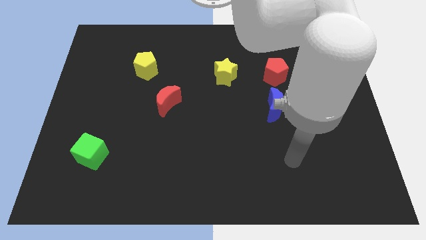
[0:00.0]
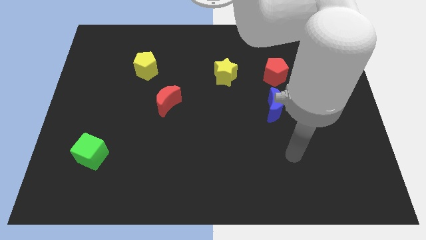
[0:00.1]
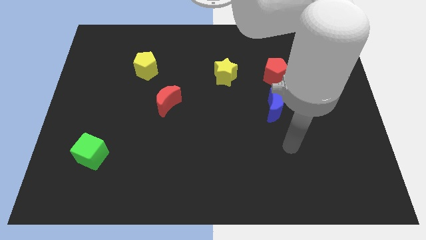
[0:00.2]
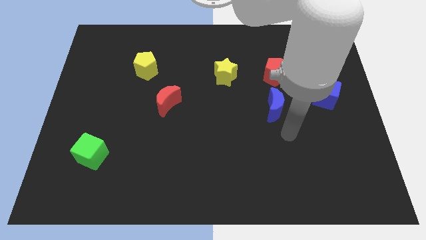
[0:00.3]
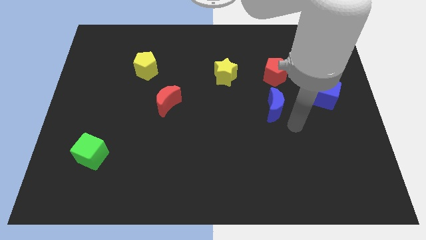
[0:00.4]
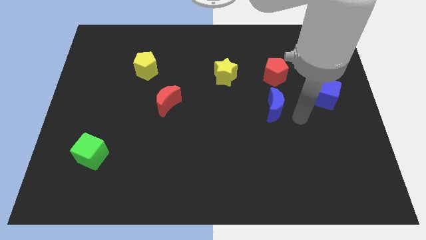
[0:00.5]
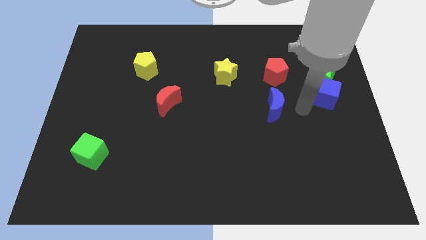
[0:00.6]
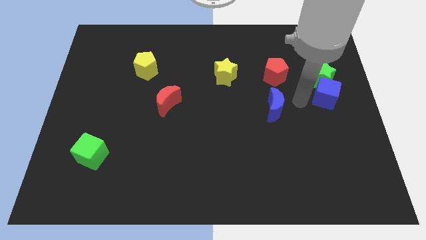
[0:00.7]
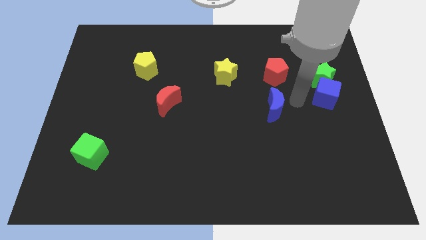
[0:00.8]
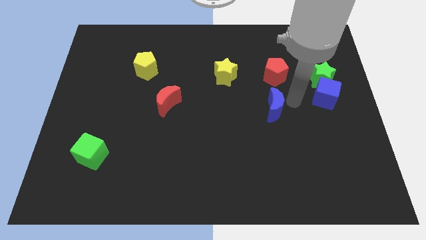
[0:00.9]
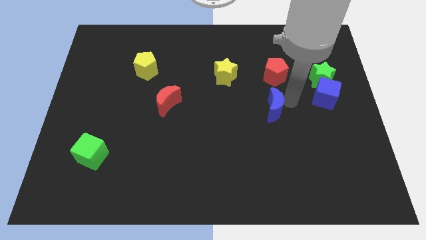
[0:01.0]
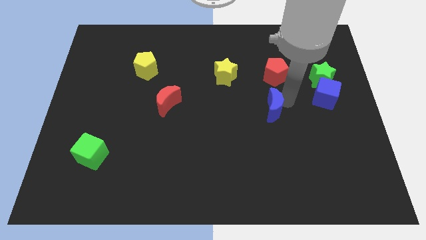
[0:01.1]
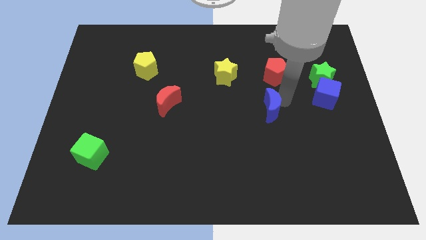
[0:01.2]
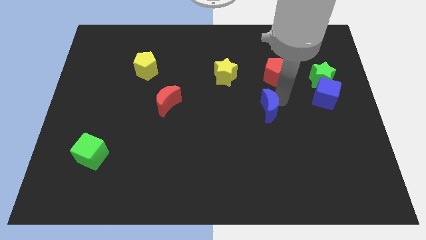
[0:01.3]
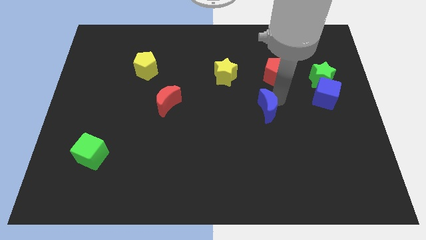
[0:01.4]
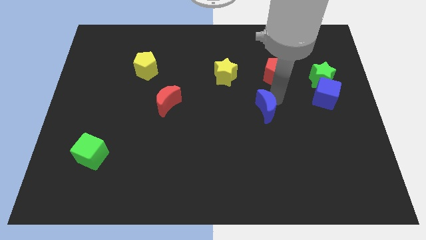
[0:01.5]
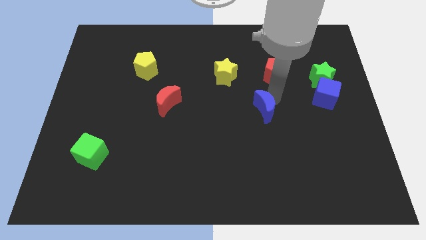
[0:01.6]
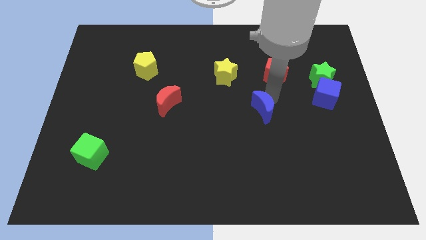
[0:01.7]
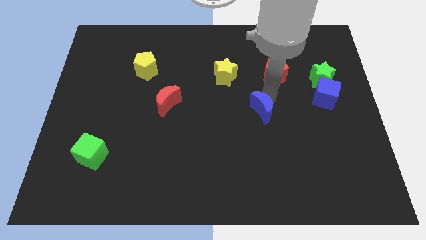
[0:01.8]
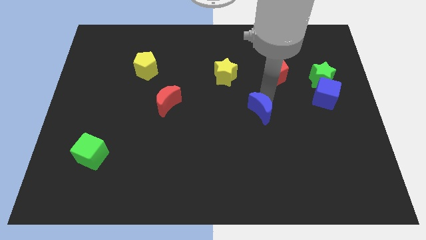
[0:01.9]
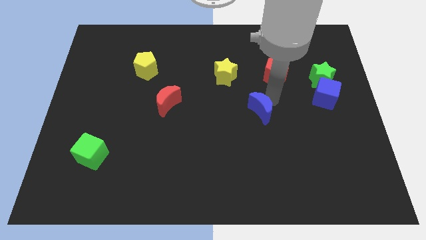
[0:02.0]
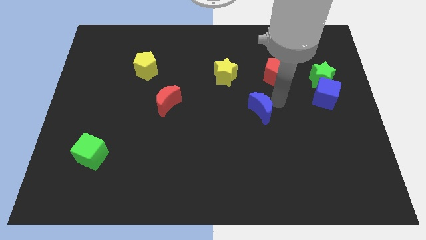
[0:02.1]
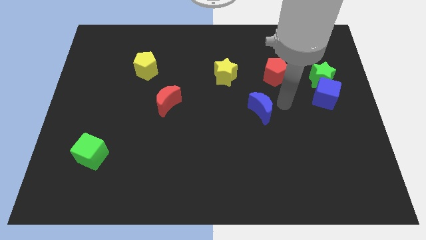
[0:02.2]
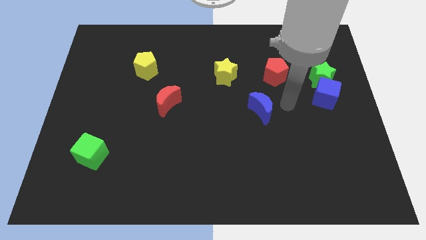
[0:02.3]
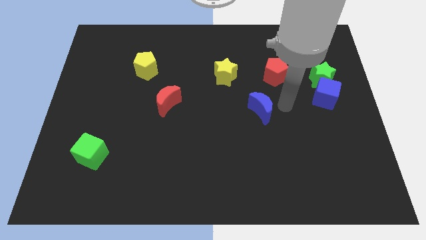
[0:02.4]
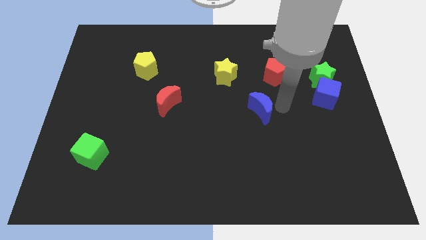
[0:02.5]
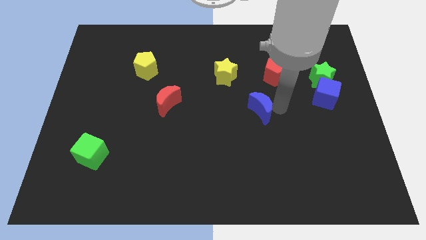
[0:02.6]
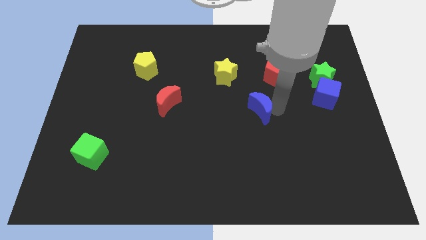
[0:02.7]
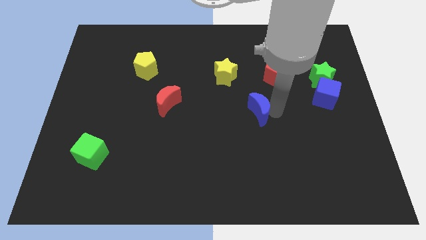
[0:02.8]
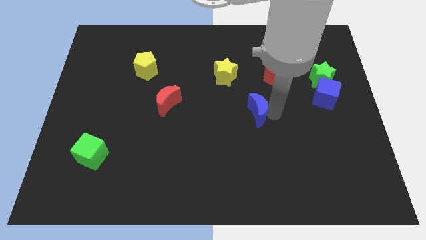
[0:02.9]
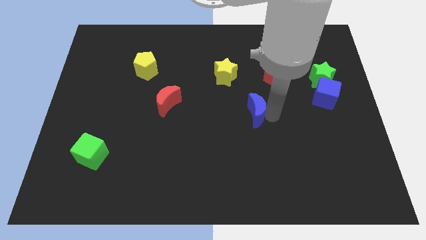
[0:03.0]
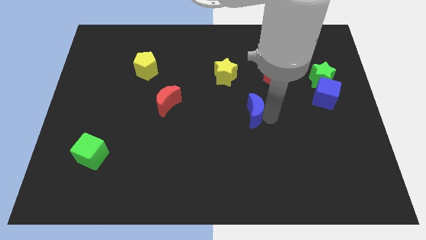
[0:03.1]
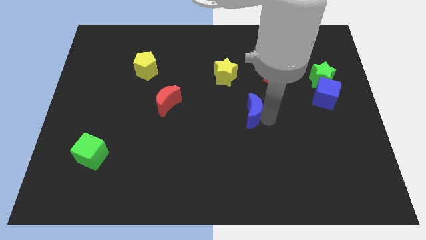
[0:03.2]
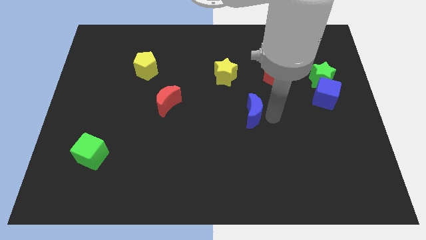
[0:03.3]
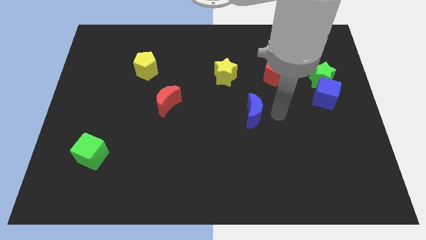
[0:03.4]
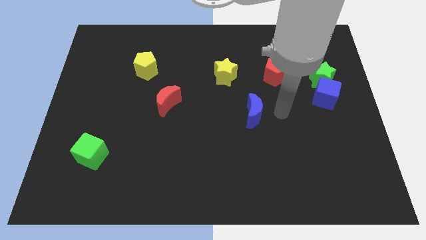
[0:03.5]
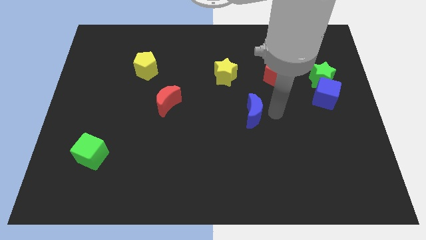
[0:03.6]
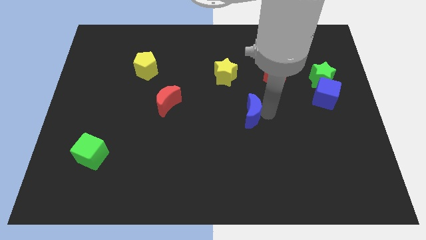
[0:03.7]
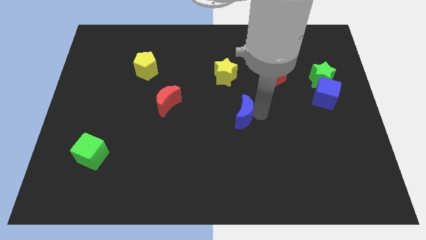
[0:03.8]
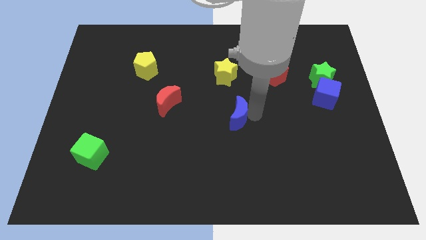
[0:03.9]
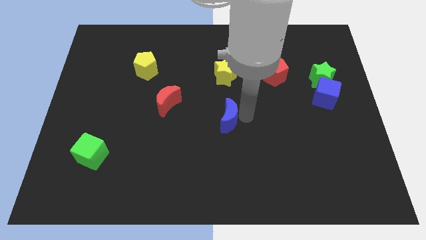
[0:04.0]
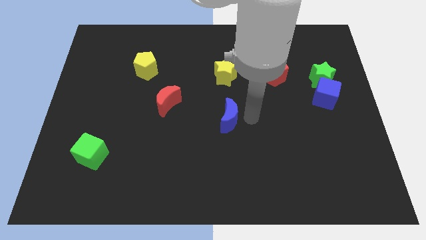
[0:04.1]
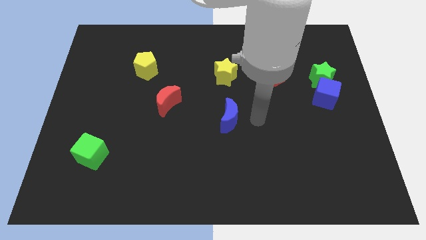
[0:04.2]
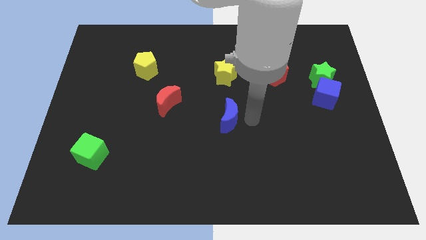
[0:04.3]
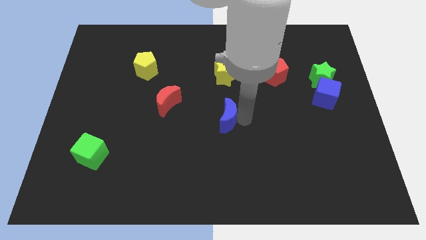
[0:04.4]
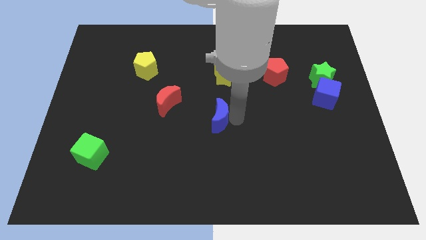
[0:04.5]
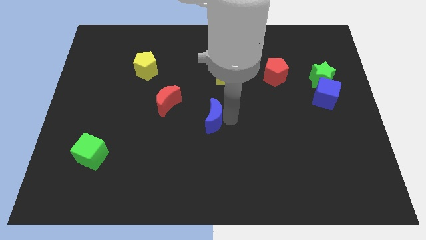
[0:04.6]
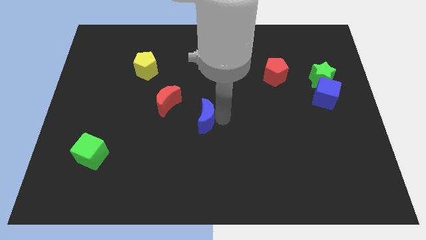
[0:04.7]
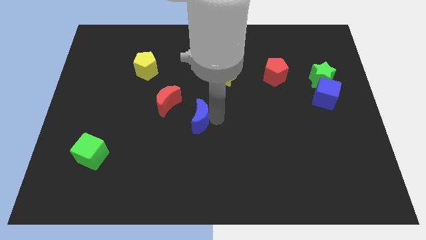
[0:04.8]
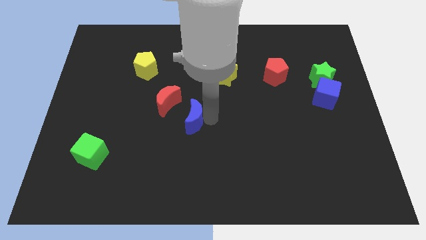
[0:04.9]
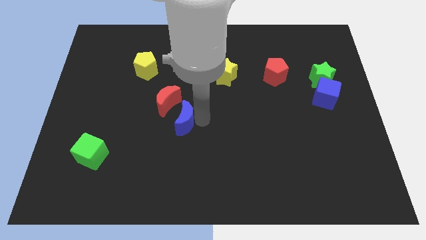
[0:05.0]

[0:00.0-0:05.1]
push the blue moon left

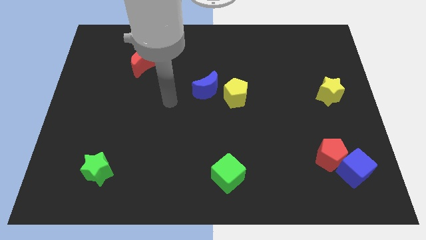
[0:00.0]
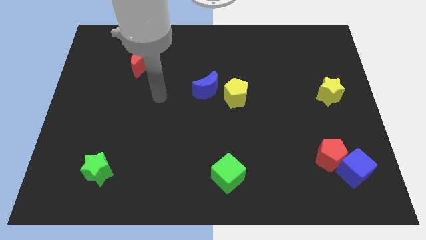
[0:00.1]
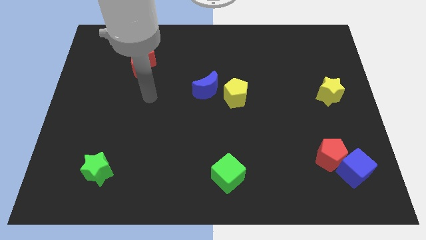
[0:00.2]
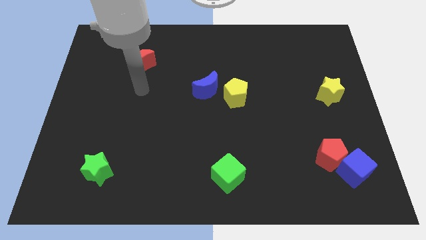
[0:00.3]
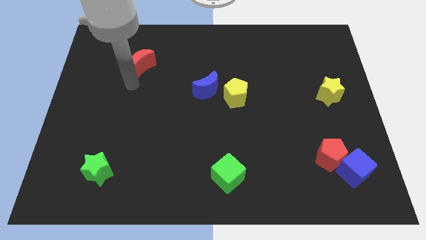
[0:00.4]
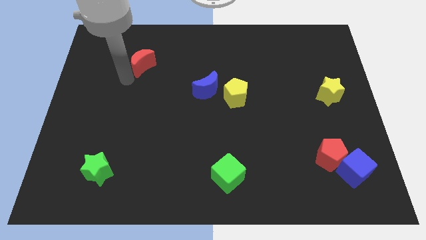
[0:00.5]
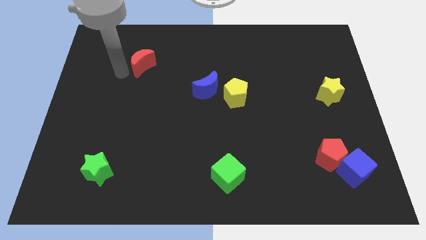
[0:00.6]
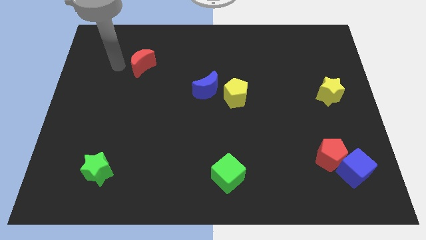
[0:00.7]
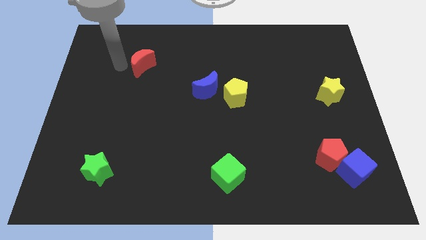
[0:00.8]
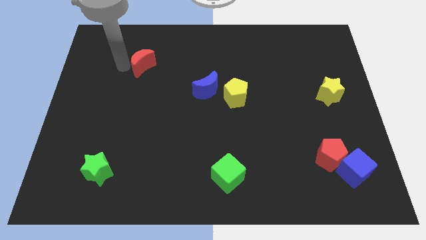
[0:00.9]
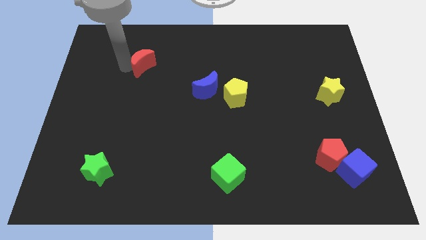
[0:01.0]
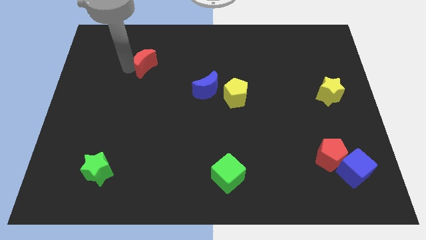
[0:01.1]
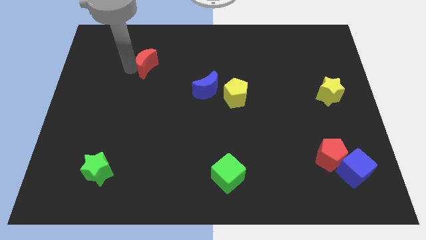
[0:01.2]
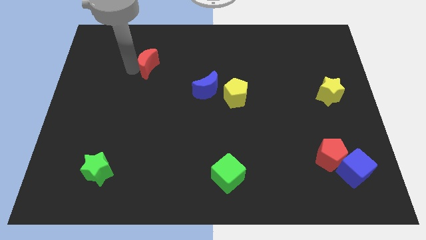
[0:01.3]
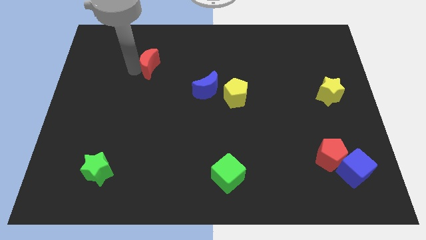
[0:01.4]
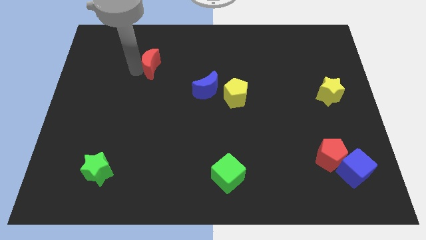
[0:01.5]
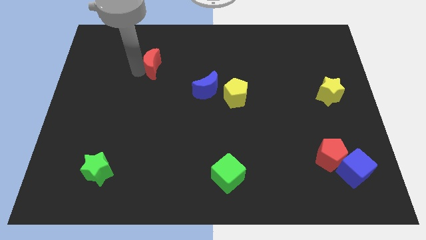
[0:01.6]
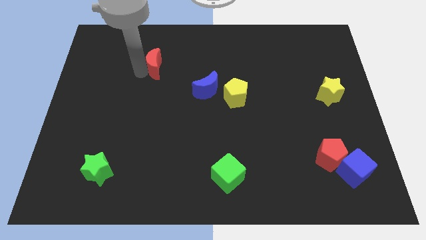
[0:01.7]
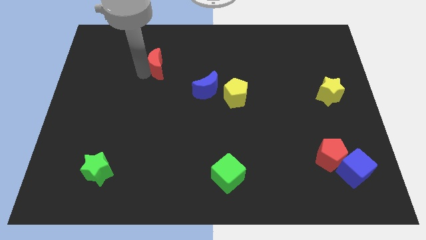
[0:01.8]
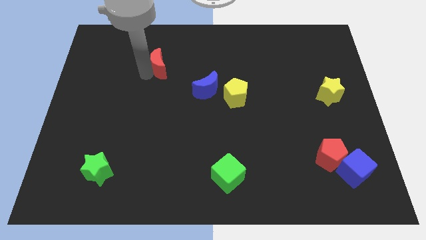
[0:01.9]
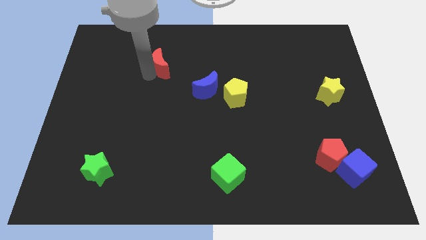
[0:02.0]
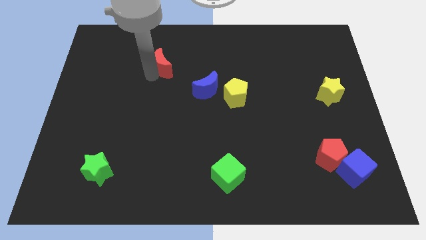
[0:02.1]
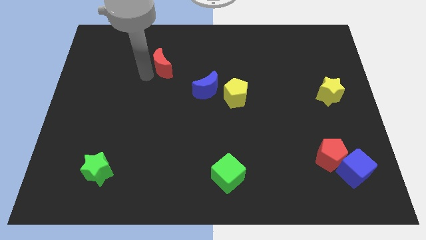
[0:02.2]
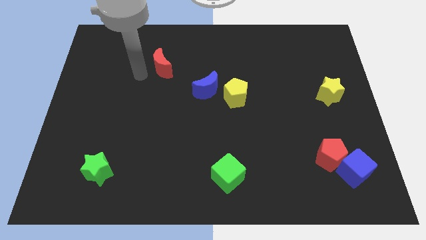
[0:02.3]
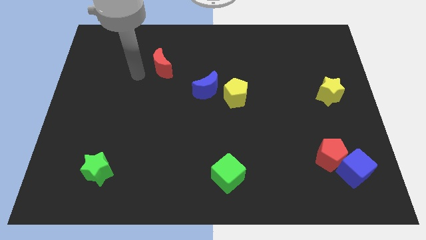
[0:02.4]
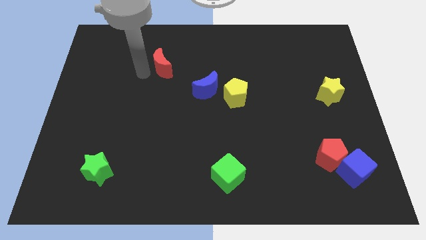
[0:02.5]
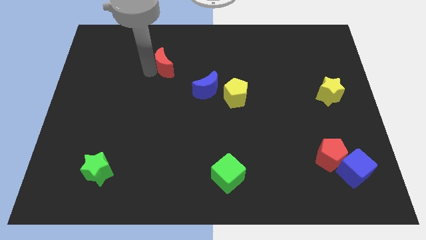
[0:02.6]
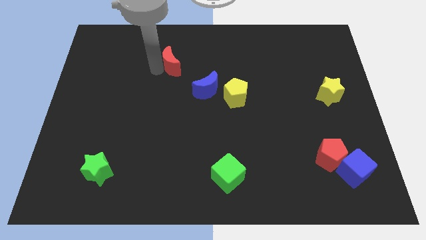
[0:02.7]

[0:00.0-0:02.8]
move the red moon somewhat to the right
